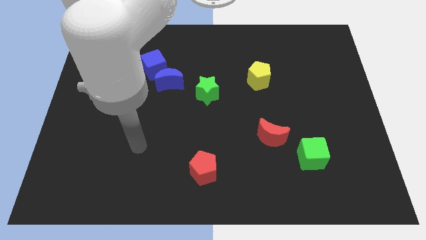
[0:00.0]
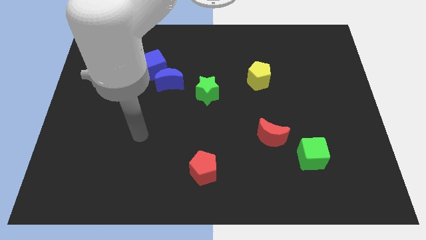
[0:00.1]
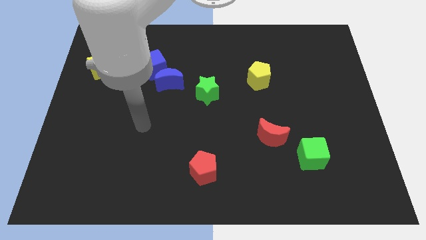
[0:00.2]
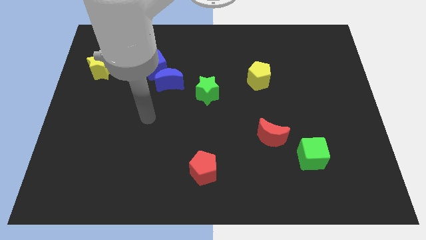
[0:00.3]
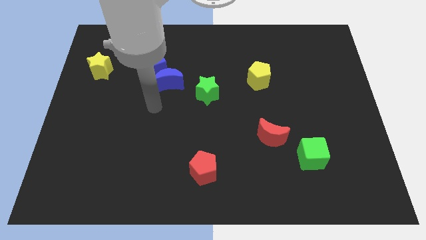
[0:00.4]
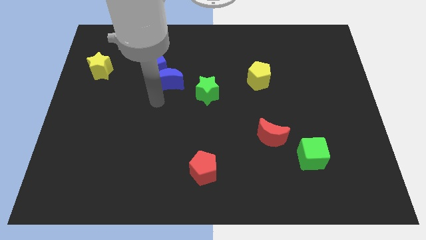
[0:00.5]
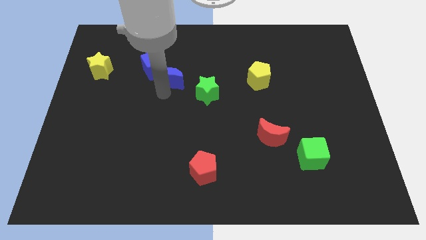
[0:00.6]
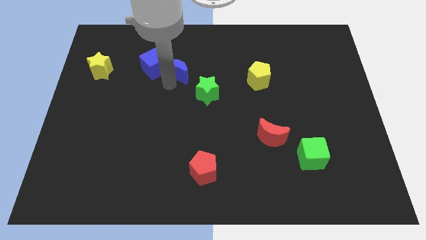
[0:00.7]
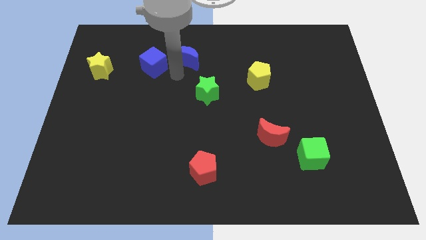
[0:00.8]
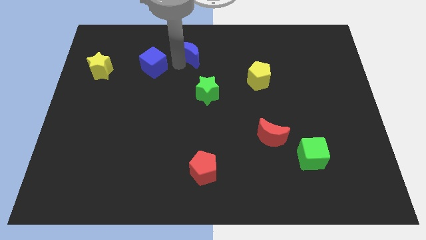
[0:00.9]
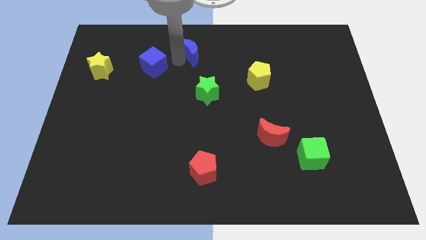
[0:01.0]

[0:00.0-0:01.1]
separate the blue cube from the blue moon

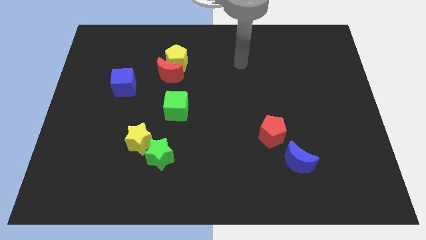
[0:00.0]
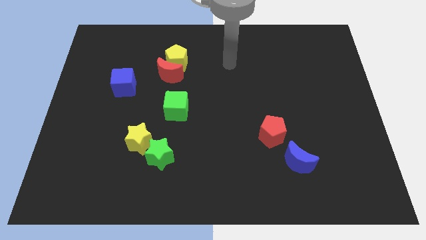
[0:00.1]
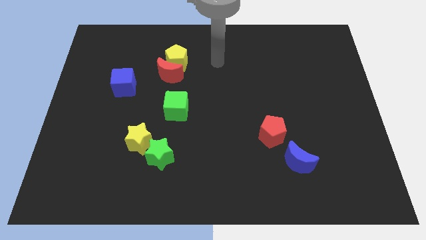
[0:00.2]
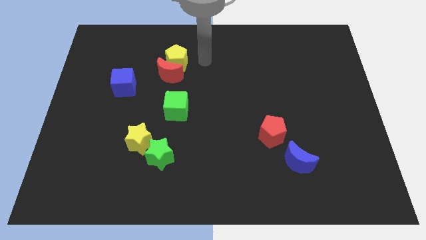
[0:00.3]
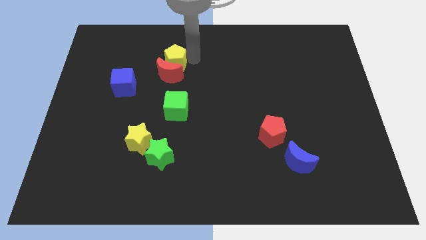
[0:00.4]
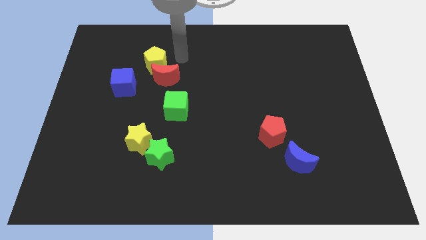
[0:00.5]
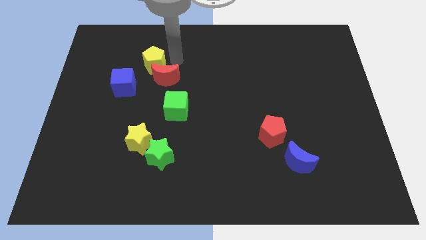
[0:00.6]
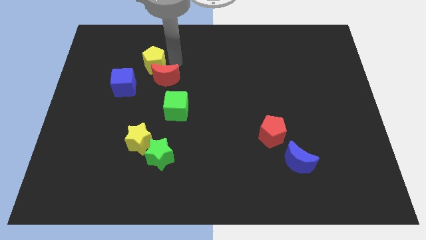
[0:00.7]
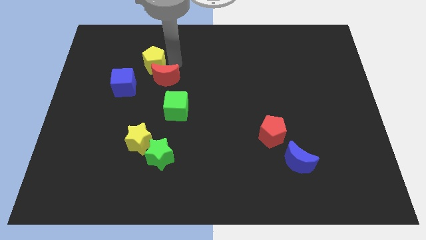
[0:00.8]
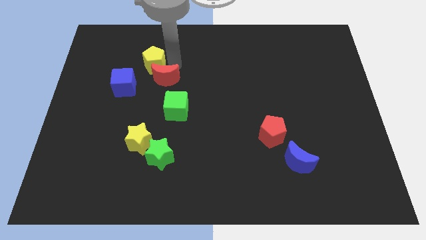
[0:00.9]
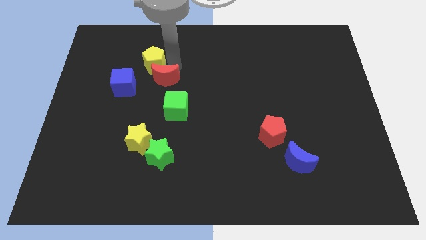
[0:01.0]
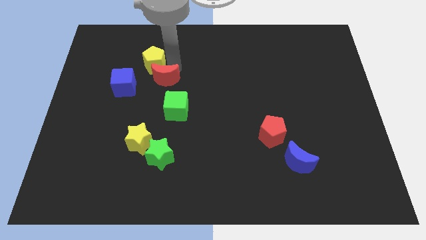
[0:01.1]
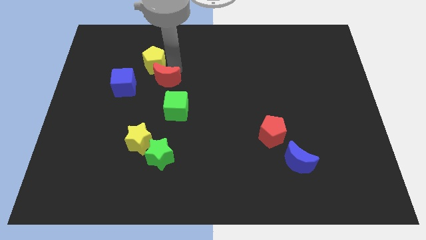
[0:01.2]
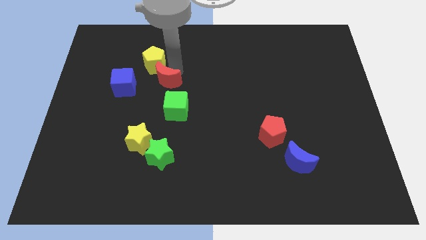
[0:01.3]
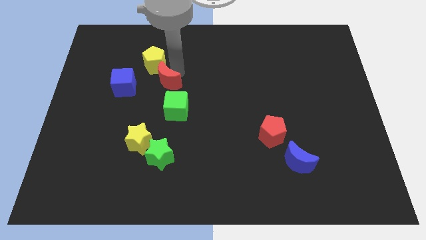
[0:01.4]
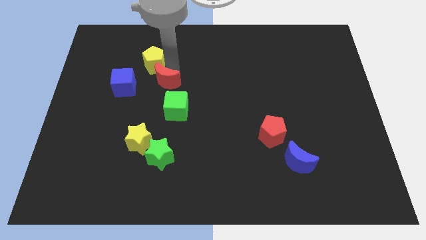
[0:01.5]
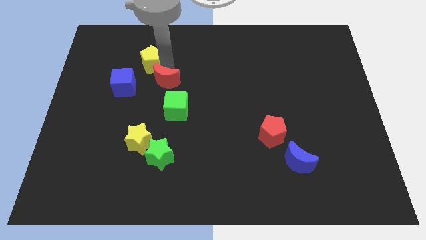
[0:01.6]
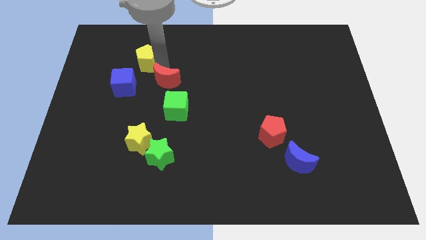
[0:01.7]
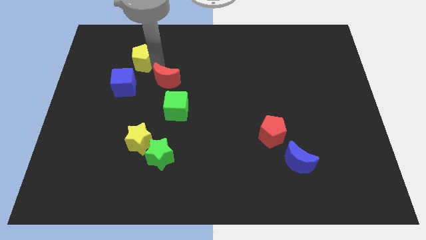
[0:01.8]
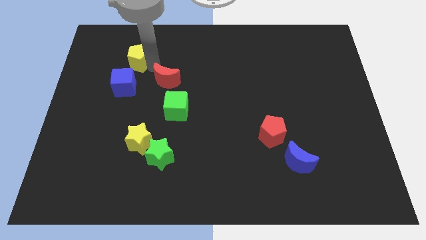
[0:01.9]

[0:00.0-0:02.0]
move the red moon away from the yellow pentagon

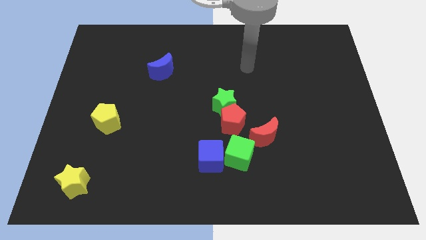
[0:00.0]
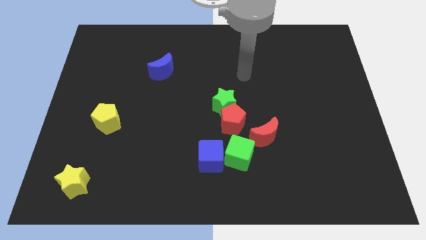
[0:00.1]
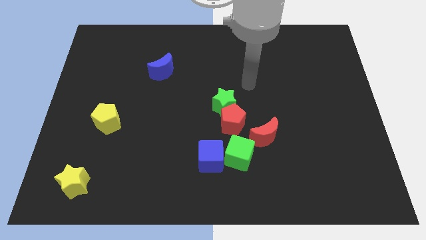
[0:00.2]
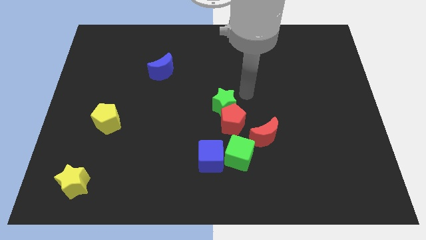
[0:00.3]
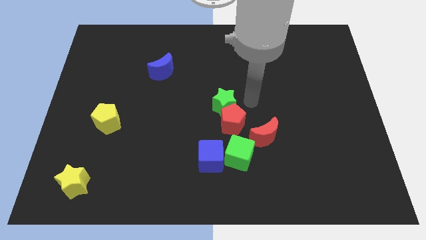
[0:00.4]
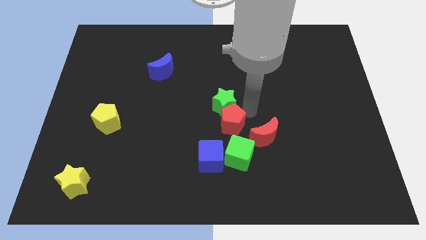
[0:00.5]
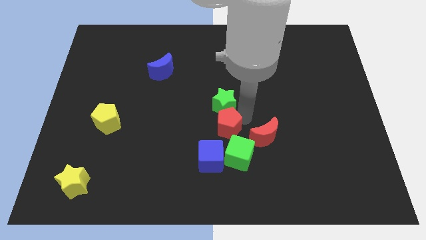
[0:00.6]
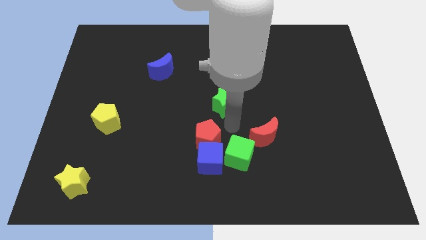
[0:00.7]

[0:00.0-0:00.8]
pull the green star apart from the red pentagon

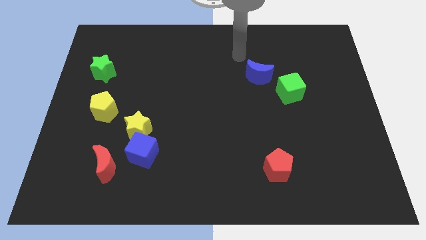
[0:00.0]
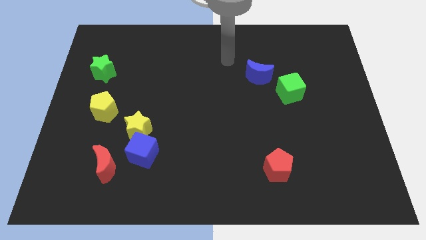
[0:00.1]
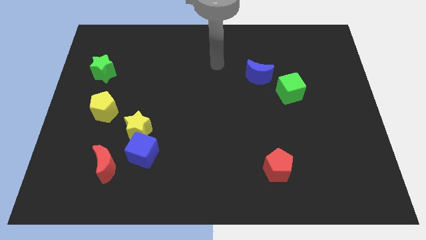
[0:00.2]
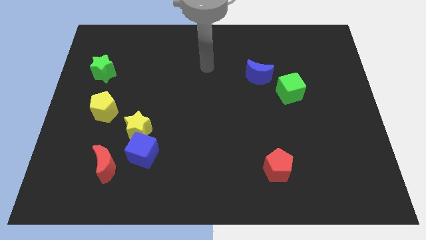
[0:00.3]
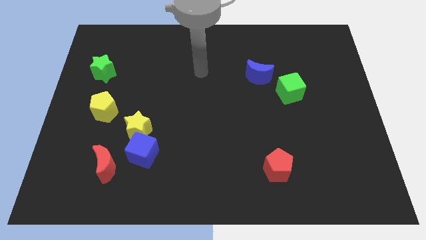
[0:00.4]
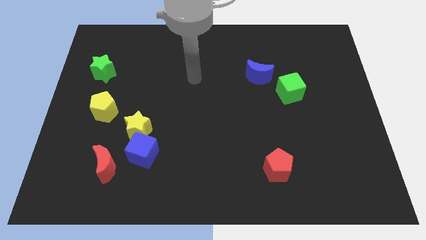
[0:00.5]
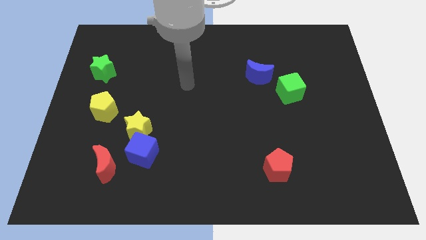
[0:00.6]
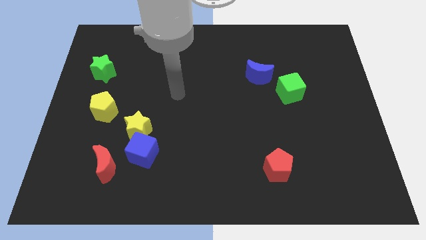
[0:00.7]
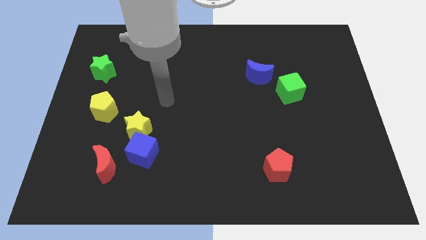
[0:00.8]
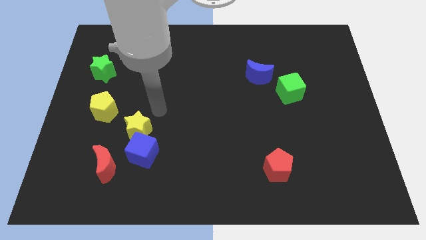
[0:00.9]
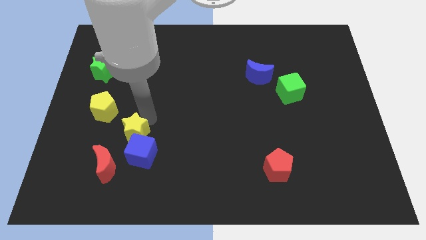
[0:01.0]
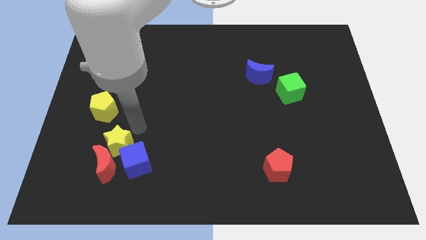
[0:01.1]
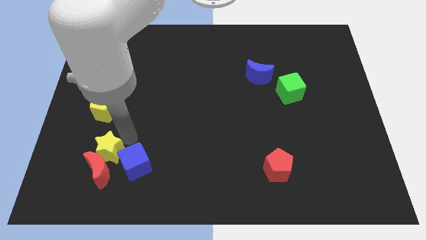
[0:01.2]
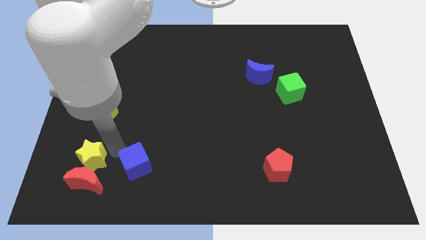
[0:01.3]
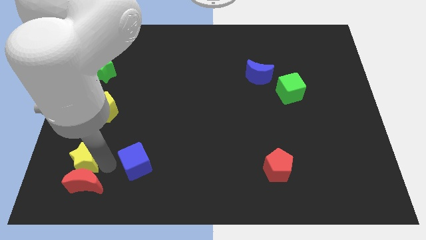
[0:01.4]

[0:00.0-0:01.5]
pull the blue cube apart from the yellow star and red moon

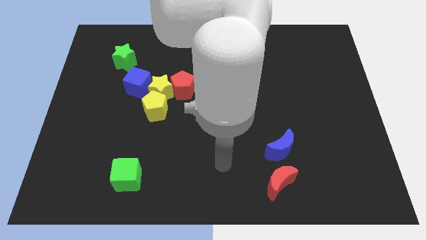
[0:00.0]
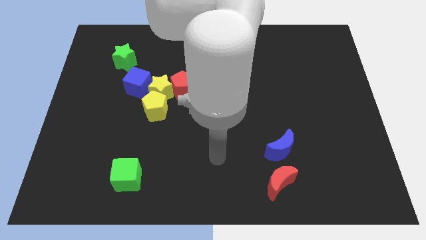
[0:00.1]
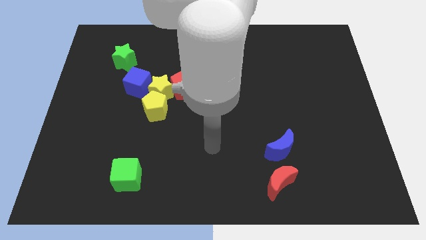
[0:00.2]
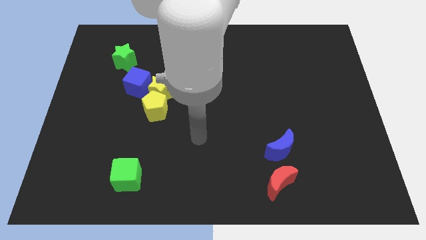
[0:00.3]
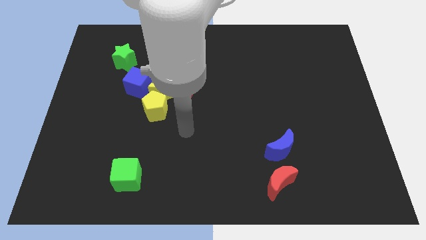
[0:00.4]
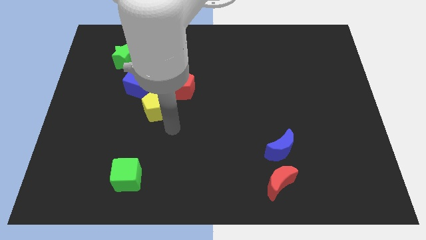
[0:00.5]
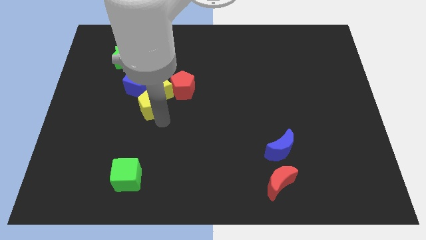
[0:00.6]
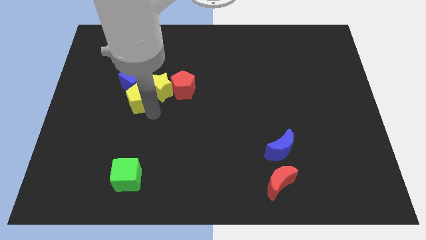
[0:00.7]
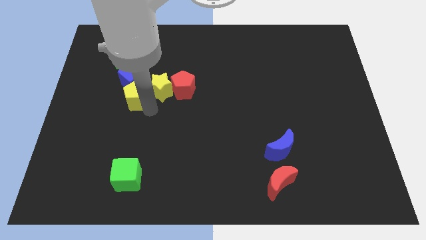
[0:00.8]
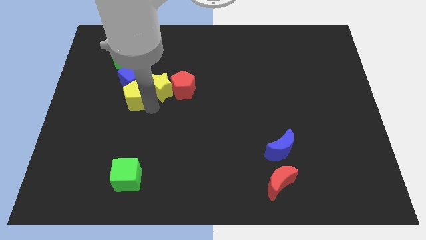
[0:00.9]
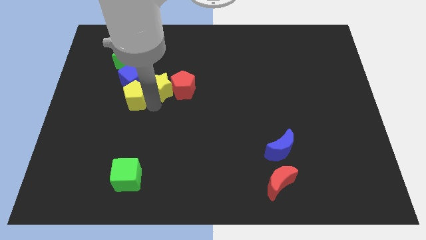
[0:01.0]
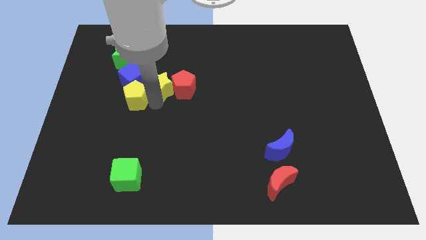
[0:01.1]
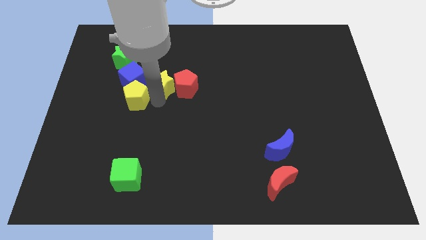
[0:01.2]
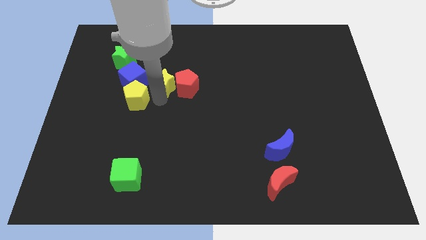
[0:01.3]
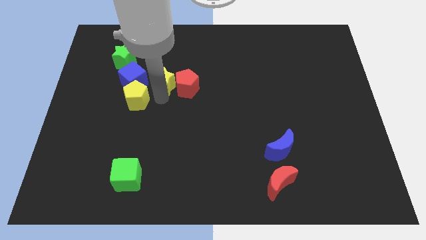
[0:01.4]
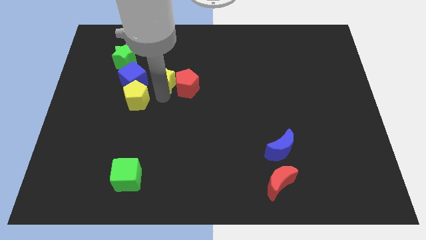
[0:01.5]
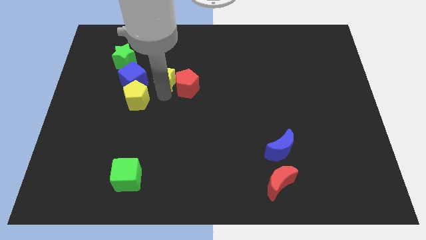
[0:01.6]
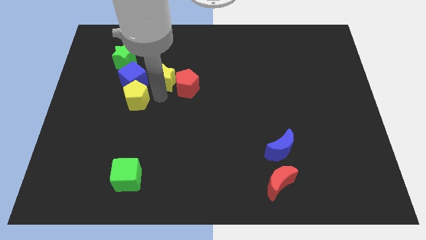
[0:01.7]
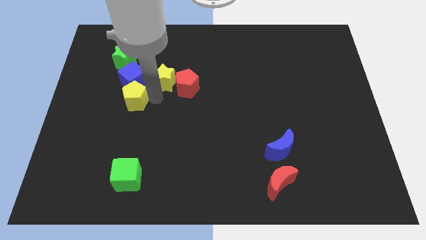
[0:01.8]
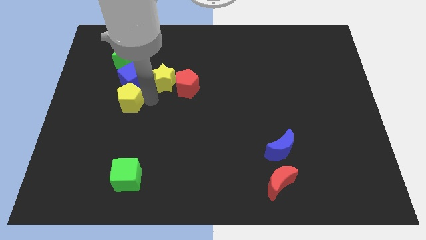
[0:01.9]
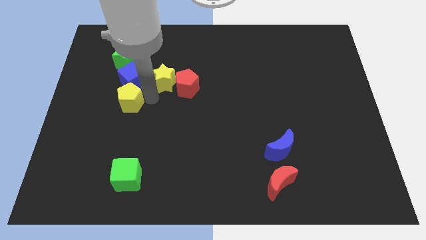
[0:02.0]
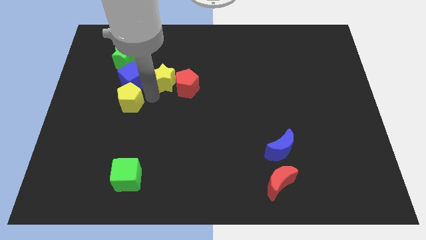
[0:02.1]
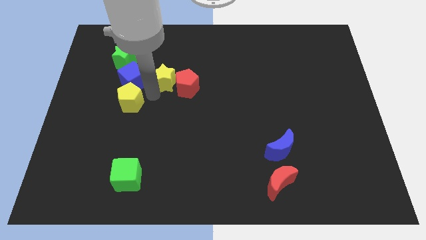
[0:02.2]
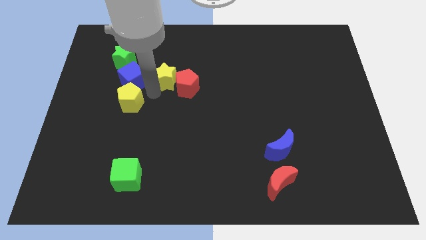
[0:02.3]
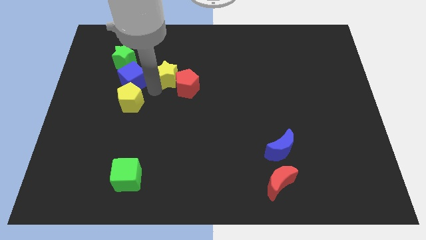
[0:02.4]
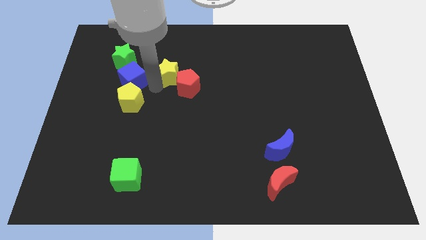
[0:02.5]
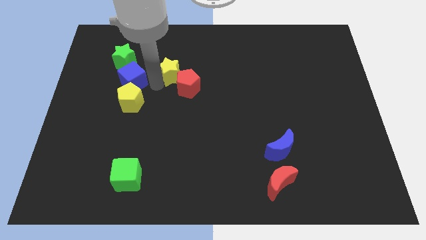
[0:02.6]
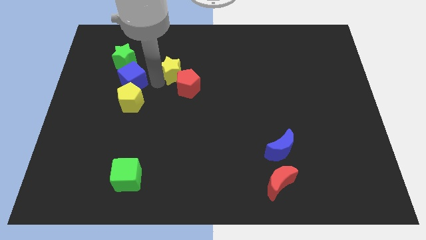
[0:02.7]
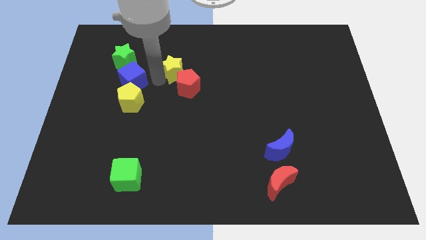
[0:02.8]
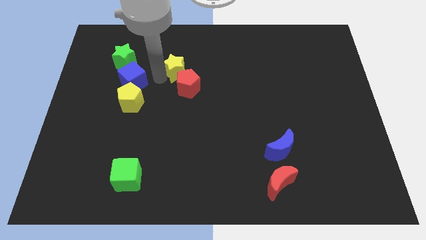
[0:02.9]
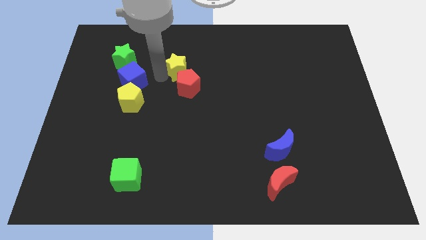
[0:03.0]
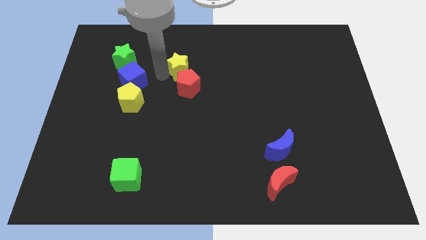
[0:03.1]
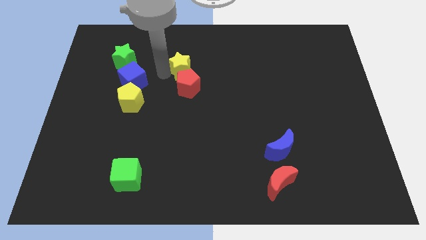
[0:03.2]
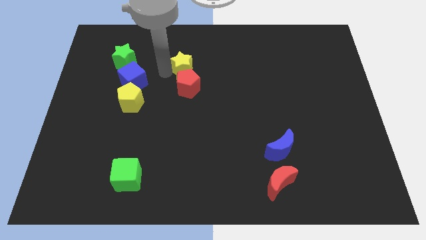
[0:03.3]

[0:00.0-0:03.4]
pull the yellow star apart from the group of blocks

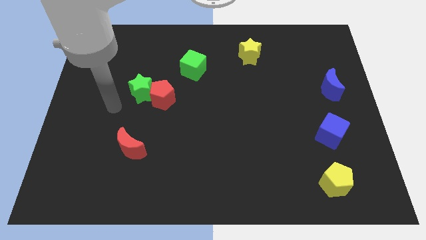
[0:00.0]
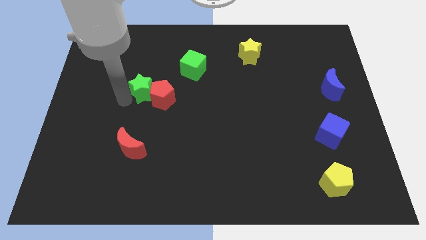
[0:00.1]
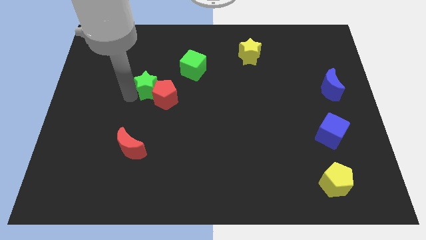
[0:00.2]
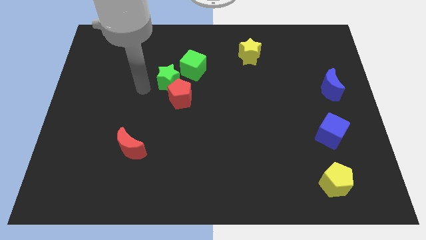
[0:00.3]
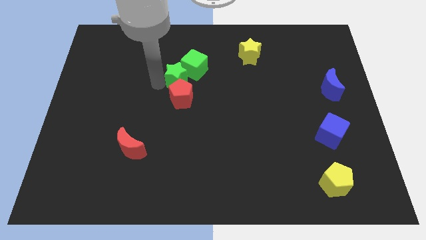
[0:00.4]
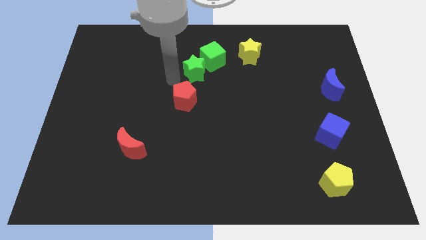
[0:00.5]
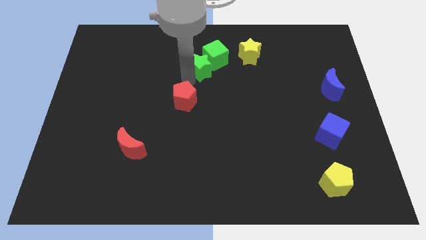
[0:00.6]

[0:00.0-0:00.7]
pull the red pentagon apart from the green star
